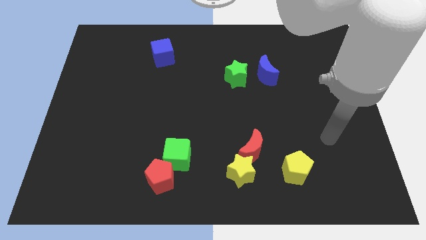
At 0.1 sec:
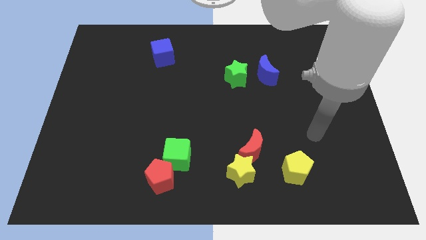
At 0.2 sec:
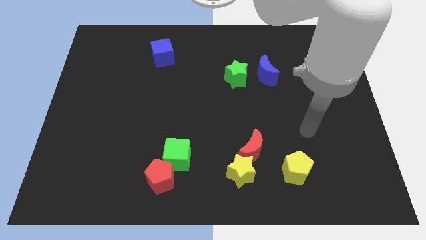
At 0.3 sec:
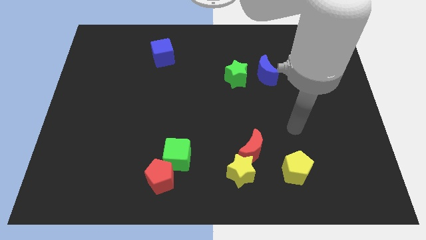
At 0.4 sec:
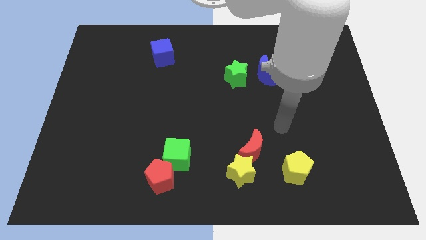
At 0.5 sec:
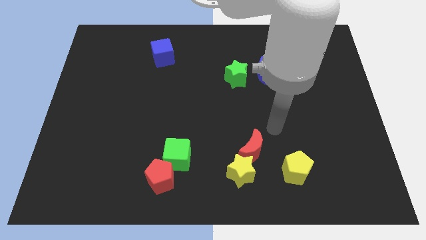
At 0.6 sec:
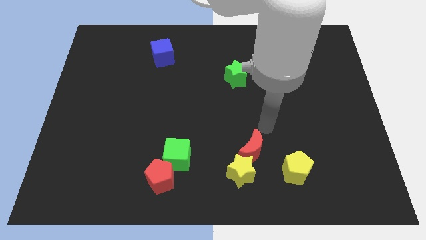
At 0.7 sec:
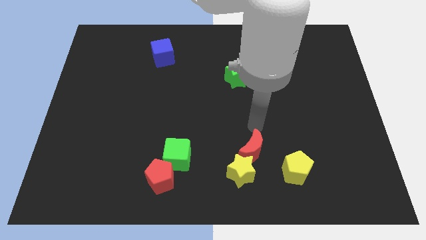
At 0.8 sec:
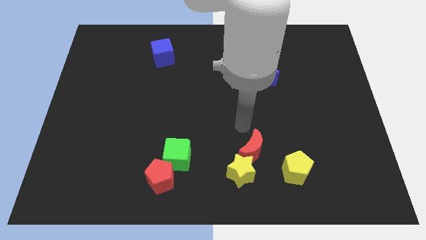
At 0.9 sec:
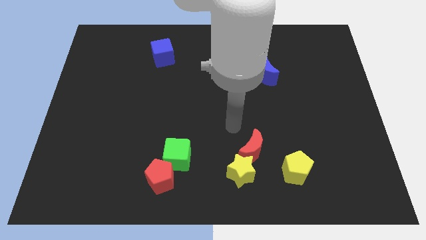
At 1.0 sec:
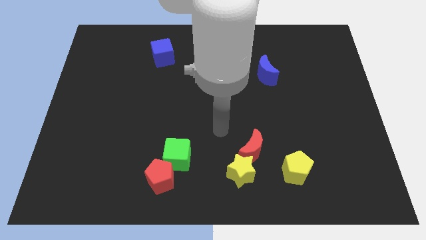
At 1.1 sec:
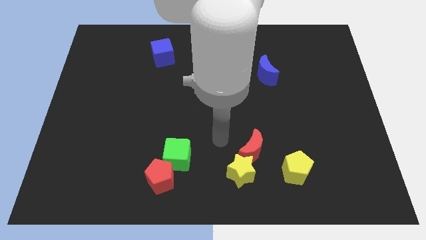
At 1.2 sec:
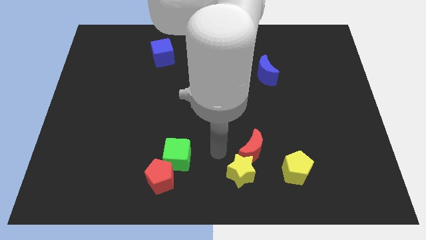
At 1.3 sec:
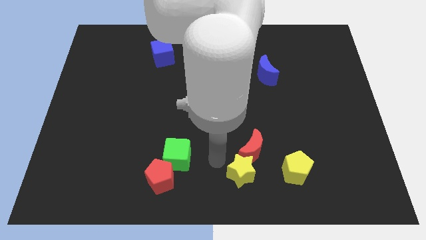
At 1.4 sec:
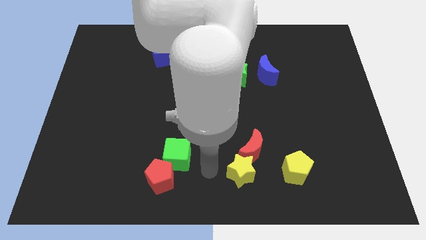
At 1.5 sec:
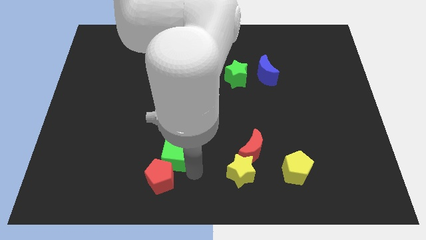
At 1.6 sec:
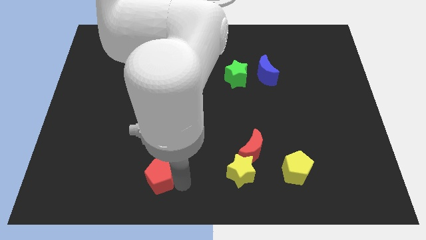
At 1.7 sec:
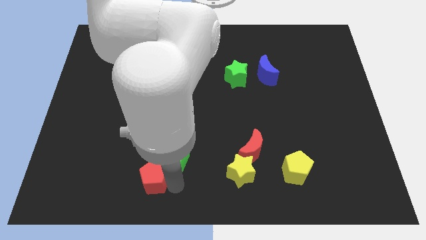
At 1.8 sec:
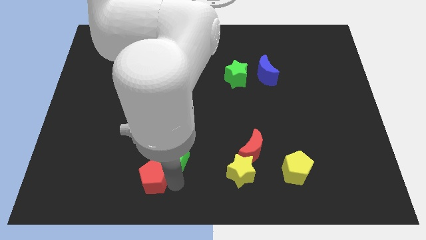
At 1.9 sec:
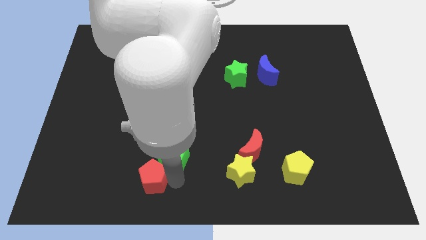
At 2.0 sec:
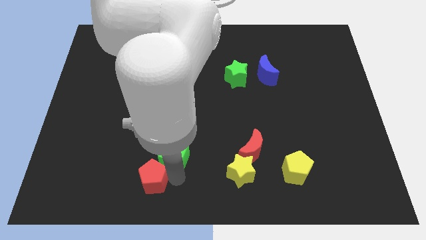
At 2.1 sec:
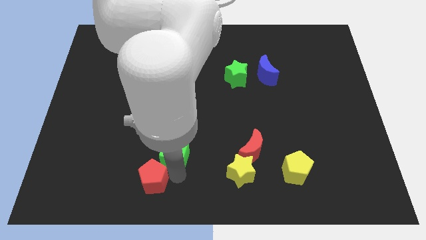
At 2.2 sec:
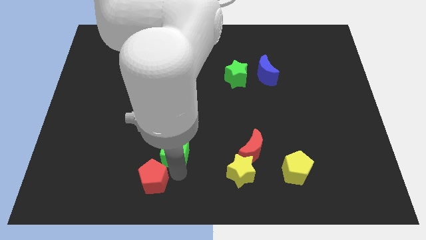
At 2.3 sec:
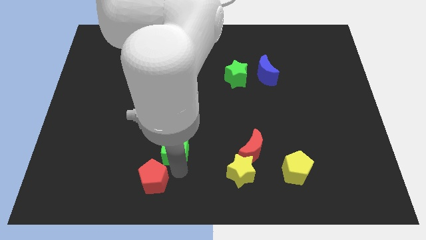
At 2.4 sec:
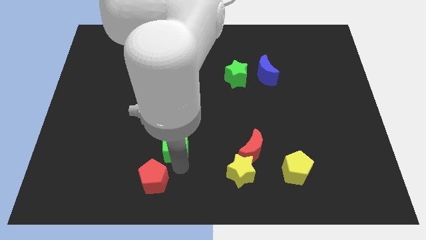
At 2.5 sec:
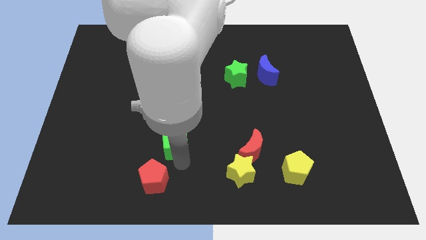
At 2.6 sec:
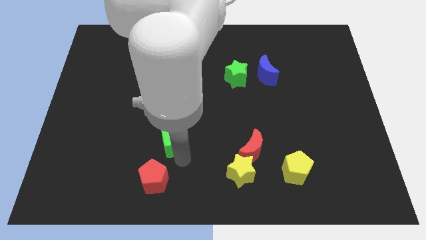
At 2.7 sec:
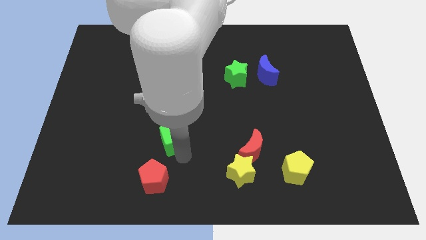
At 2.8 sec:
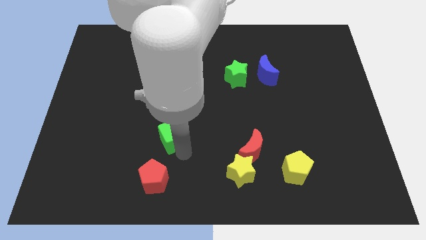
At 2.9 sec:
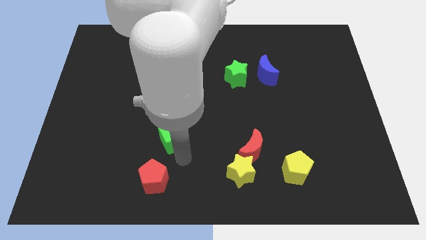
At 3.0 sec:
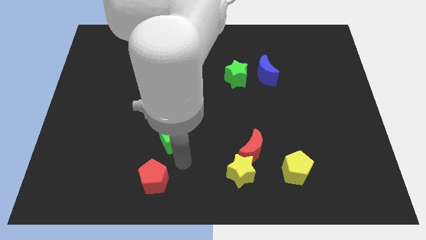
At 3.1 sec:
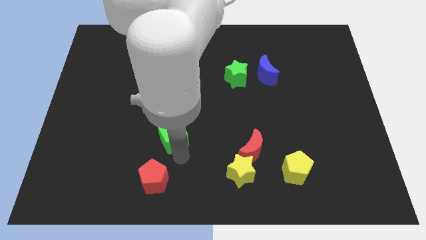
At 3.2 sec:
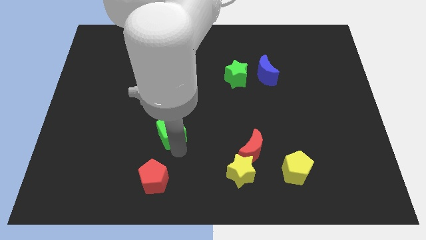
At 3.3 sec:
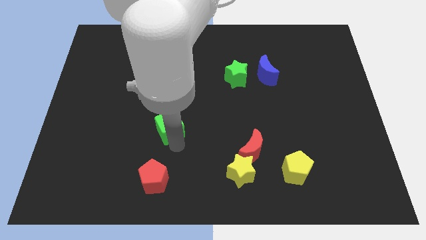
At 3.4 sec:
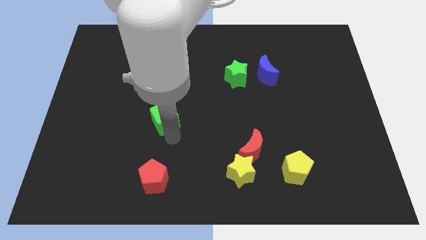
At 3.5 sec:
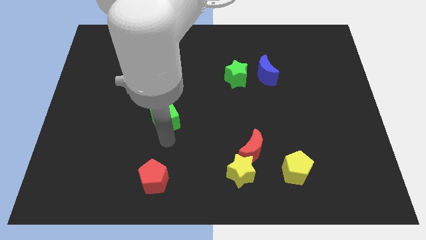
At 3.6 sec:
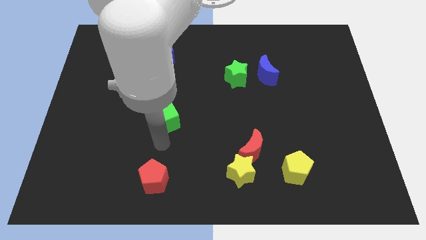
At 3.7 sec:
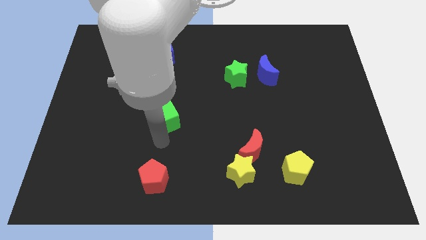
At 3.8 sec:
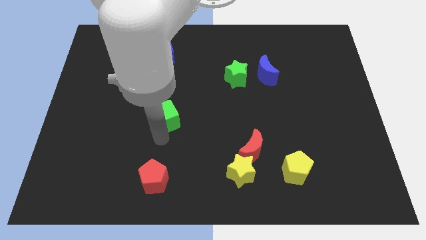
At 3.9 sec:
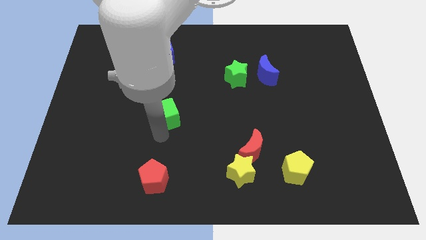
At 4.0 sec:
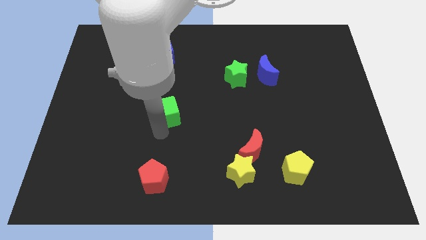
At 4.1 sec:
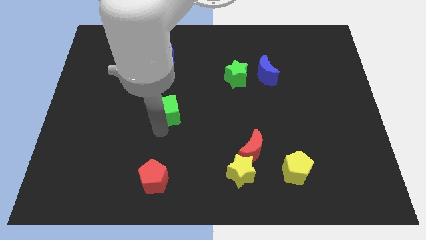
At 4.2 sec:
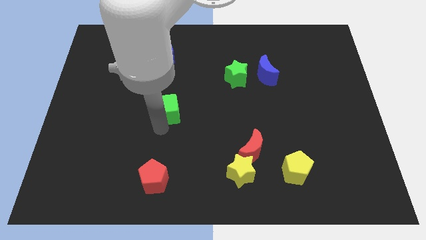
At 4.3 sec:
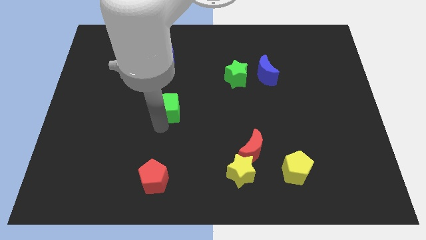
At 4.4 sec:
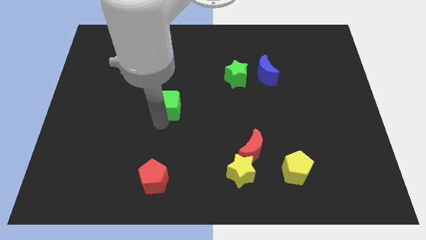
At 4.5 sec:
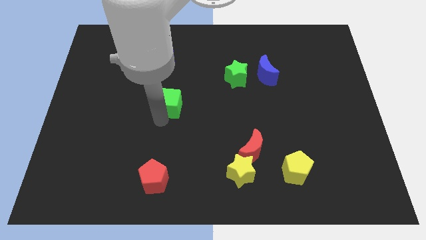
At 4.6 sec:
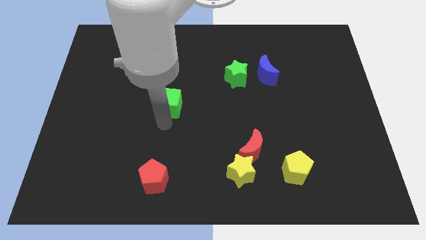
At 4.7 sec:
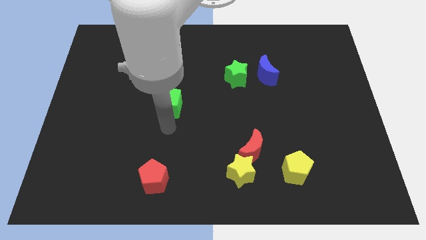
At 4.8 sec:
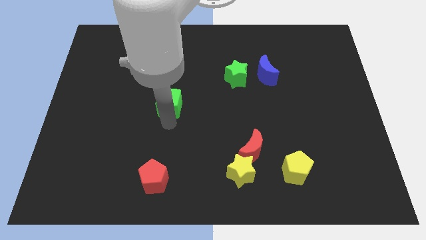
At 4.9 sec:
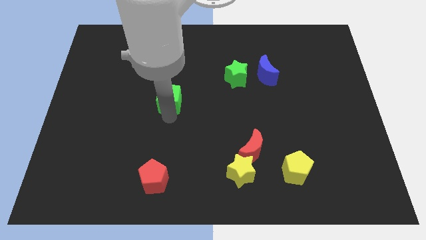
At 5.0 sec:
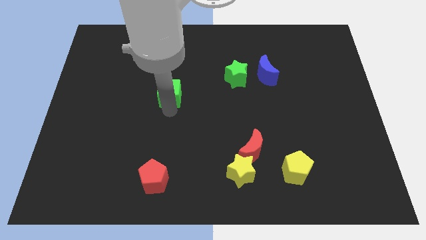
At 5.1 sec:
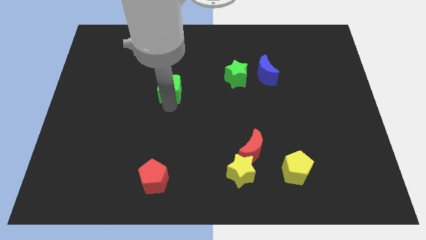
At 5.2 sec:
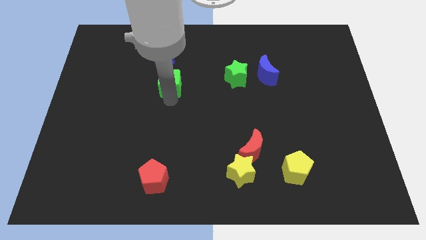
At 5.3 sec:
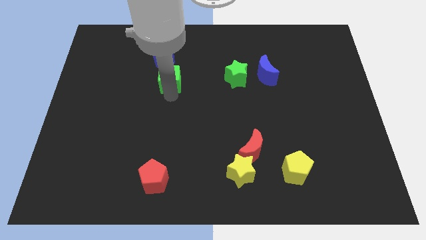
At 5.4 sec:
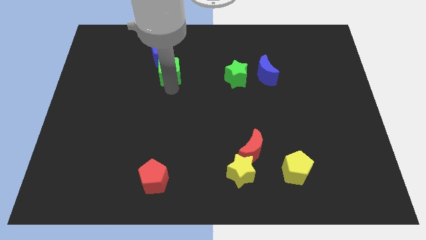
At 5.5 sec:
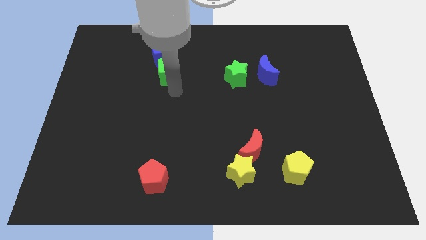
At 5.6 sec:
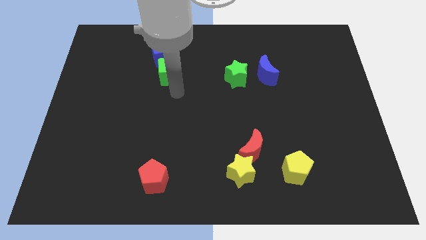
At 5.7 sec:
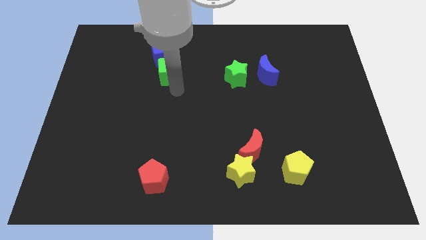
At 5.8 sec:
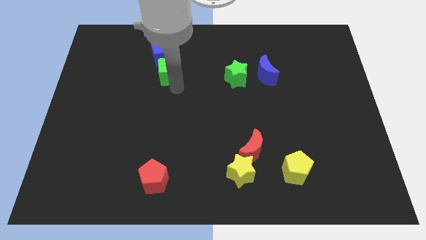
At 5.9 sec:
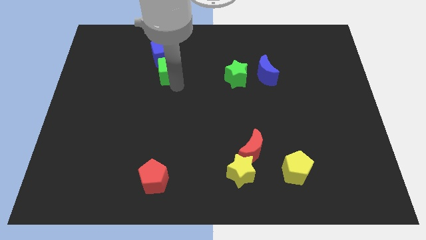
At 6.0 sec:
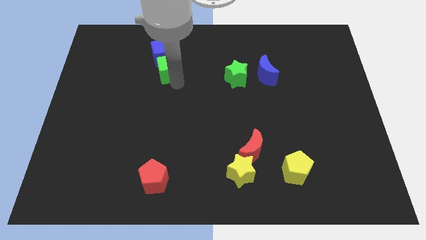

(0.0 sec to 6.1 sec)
slide the green cube next to the blue cube

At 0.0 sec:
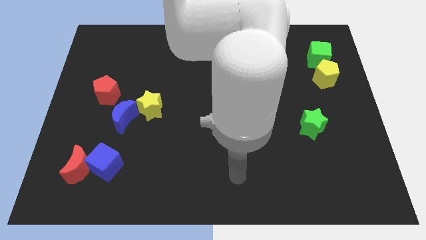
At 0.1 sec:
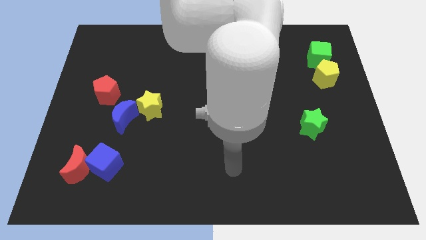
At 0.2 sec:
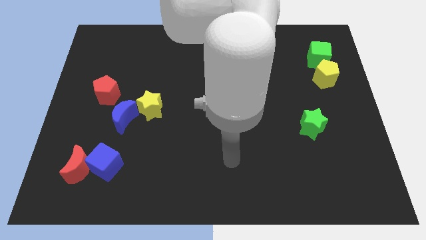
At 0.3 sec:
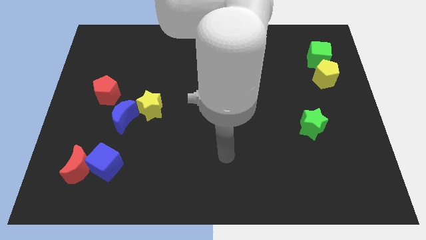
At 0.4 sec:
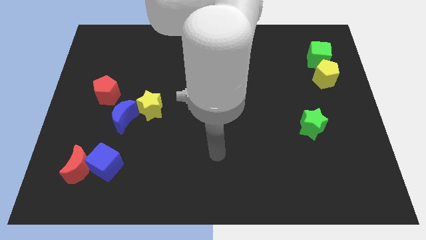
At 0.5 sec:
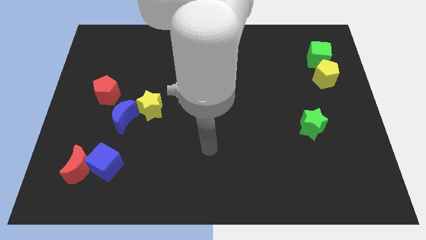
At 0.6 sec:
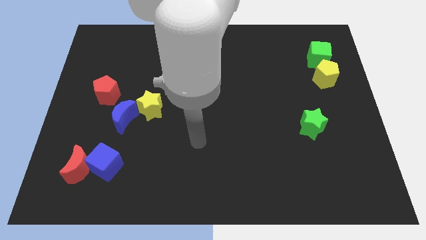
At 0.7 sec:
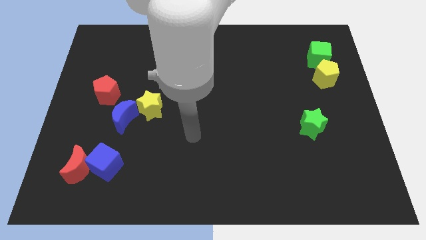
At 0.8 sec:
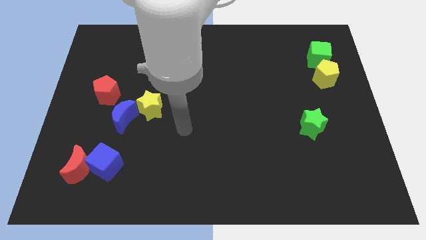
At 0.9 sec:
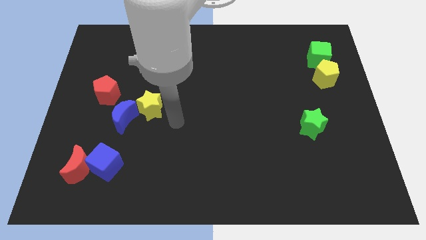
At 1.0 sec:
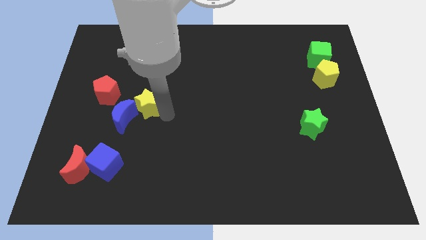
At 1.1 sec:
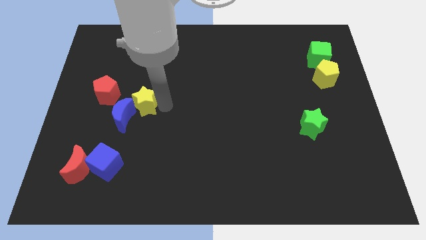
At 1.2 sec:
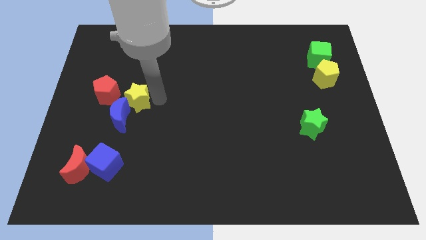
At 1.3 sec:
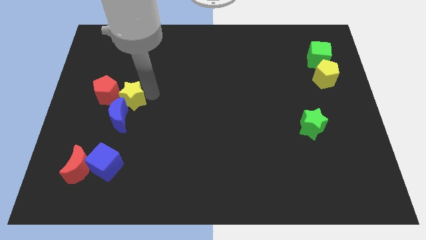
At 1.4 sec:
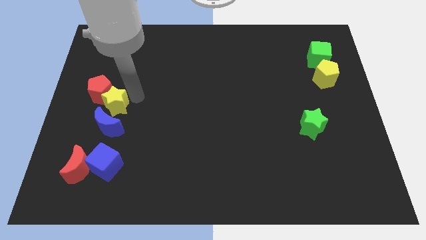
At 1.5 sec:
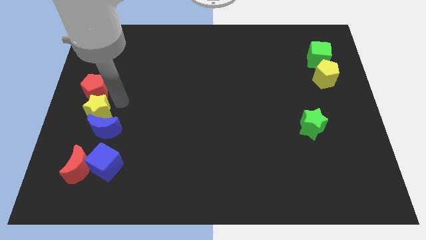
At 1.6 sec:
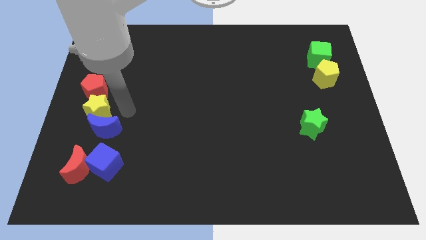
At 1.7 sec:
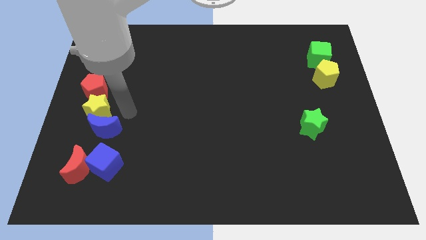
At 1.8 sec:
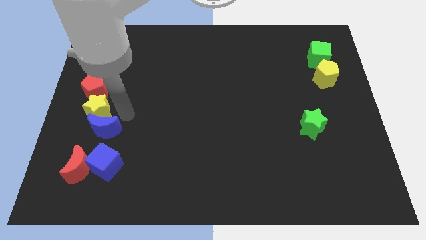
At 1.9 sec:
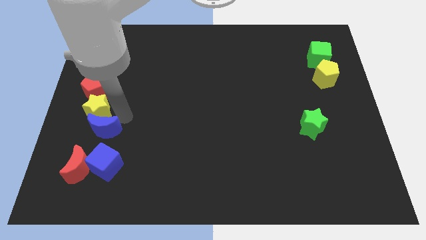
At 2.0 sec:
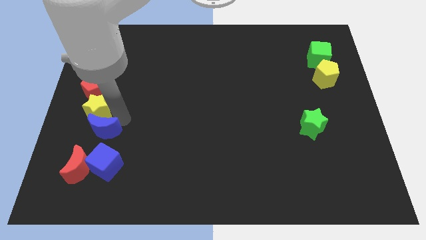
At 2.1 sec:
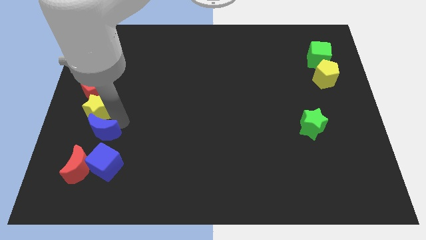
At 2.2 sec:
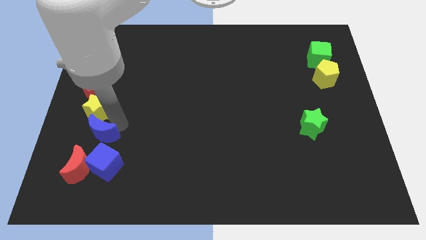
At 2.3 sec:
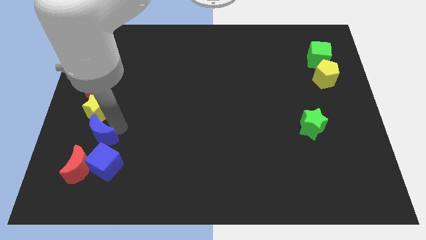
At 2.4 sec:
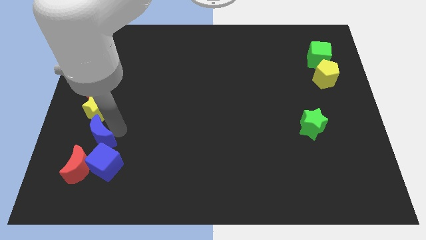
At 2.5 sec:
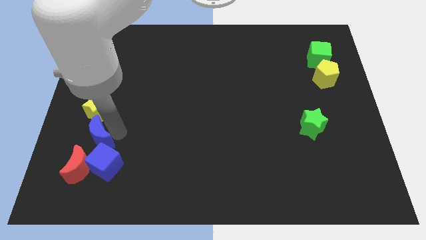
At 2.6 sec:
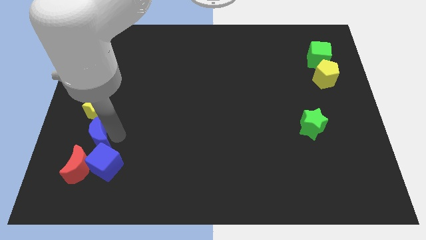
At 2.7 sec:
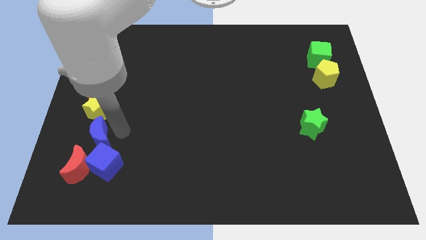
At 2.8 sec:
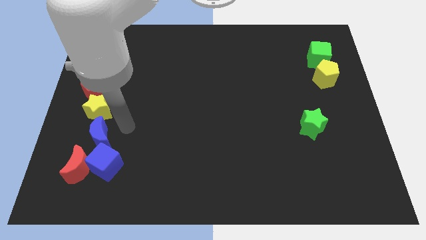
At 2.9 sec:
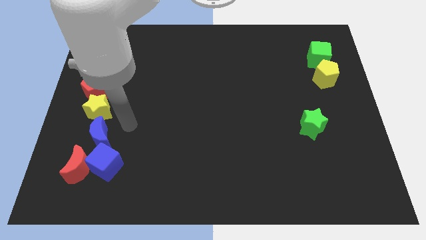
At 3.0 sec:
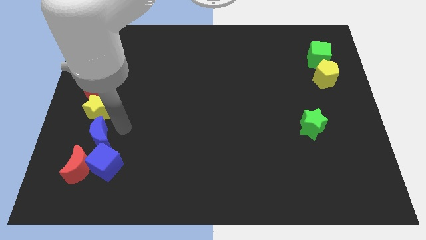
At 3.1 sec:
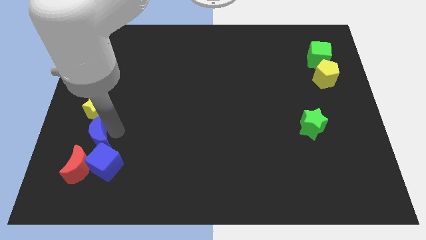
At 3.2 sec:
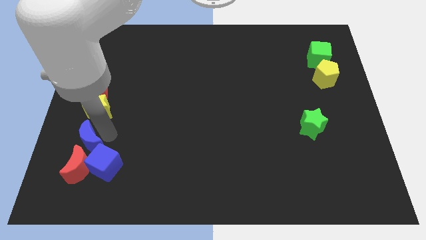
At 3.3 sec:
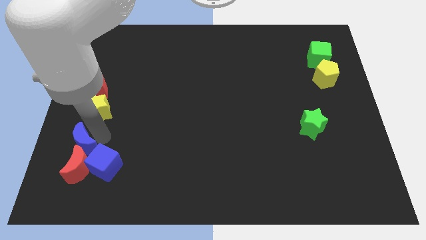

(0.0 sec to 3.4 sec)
move the blue moon towards the red moon
